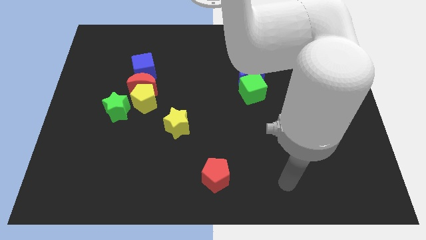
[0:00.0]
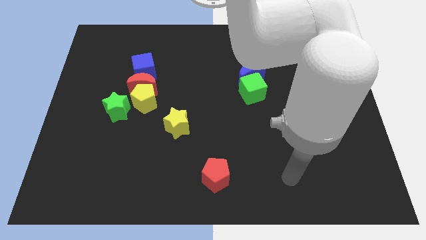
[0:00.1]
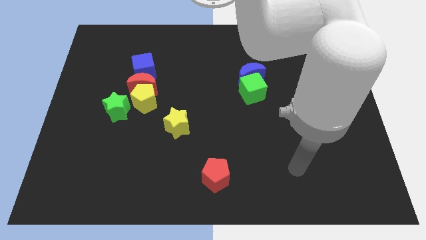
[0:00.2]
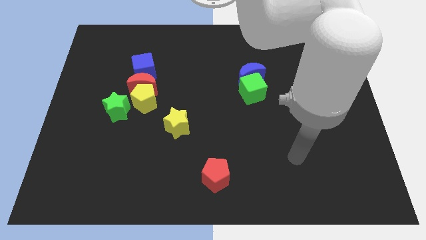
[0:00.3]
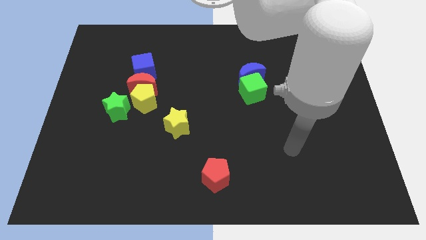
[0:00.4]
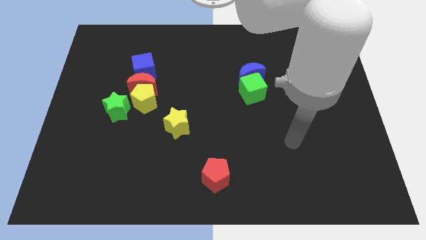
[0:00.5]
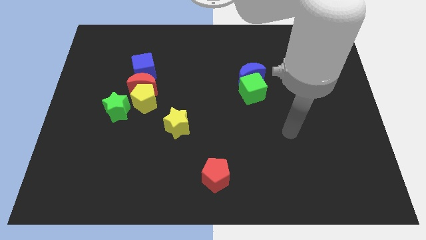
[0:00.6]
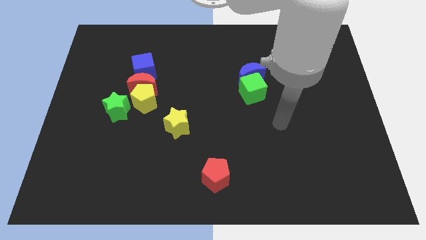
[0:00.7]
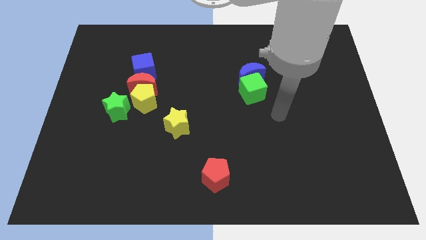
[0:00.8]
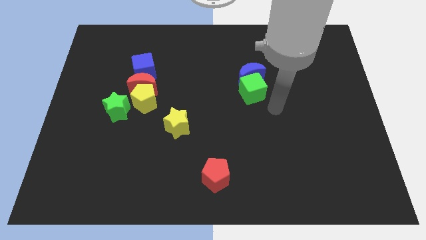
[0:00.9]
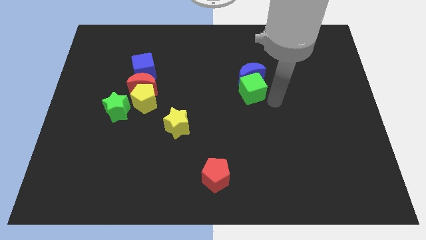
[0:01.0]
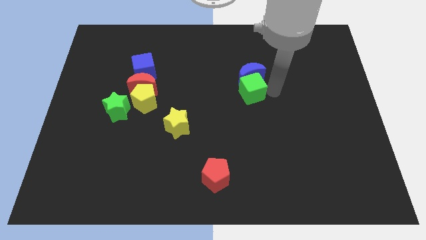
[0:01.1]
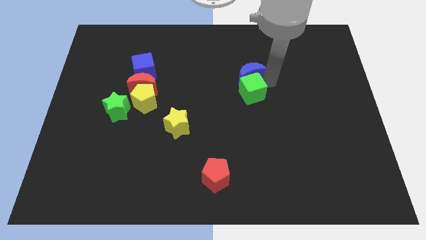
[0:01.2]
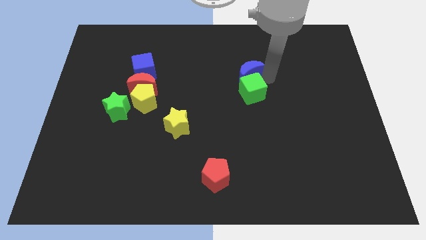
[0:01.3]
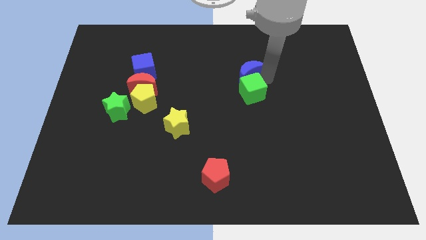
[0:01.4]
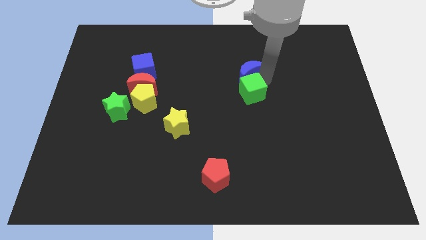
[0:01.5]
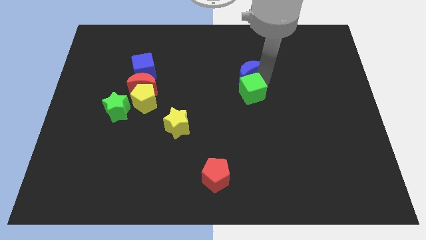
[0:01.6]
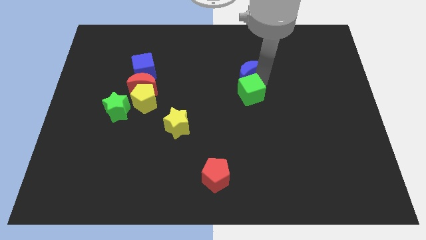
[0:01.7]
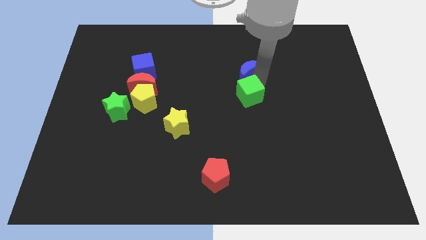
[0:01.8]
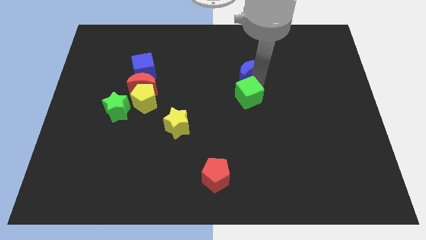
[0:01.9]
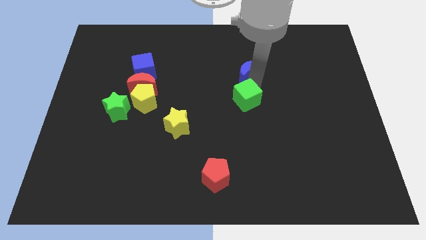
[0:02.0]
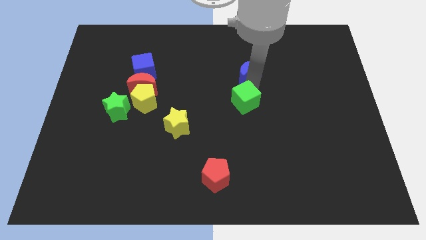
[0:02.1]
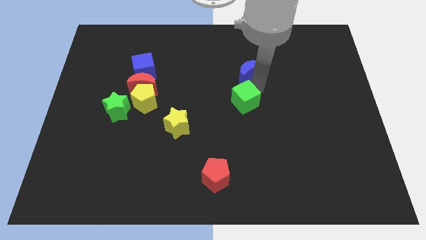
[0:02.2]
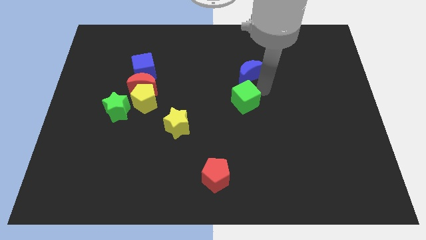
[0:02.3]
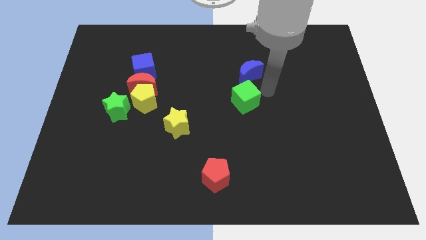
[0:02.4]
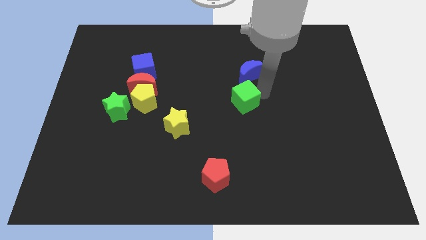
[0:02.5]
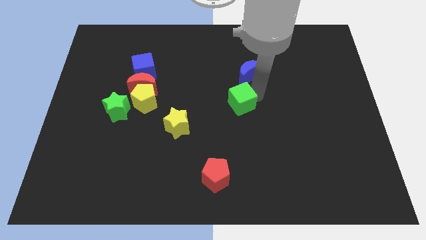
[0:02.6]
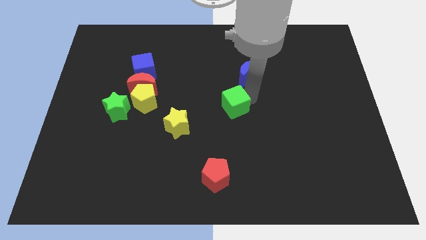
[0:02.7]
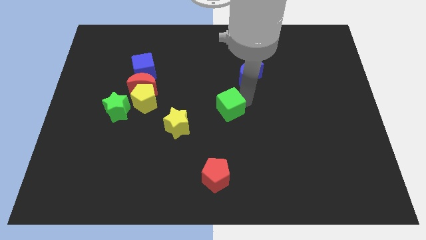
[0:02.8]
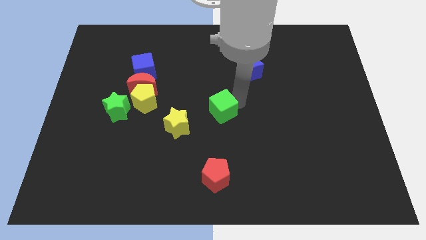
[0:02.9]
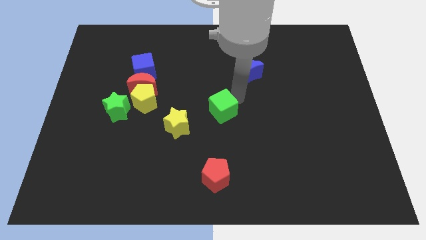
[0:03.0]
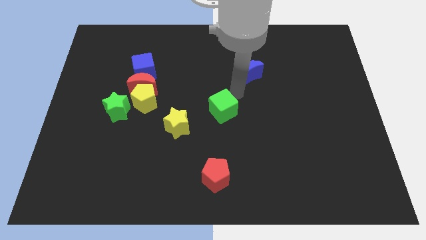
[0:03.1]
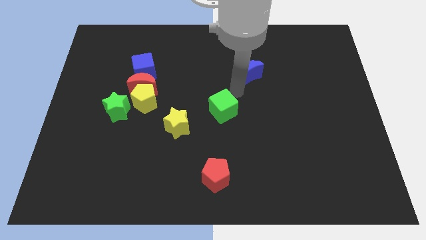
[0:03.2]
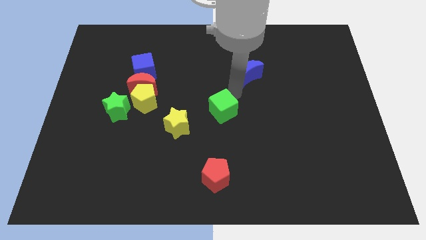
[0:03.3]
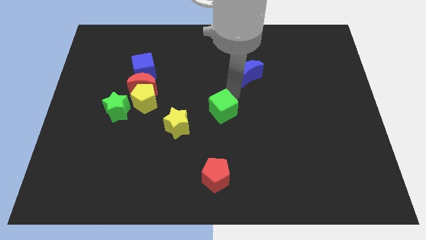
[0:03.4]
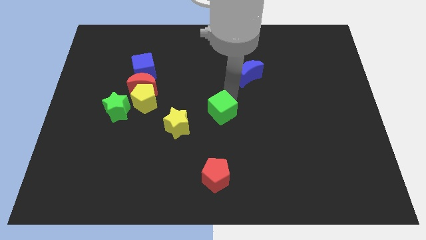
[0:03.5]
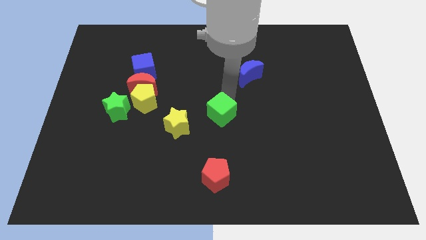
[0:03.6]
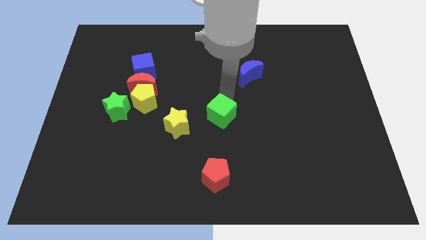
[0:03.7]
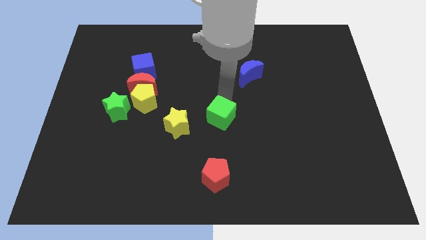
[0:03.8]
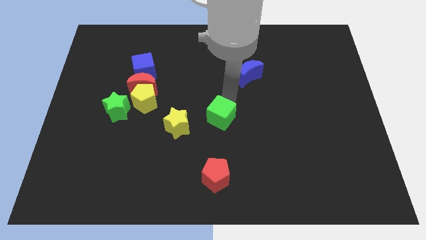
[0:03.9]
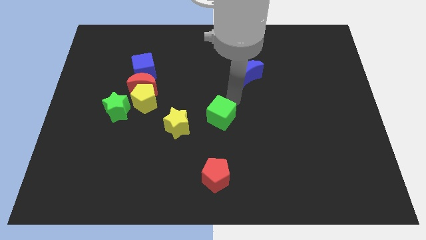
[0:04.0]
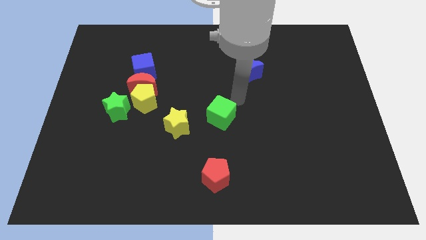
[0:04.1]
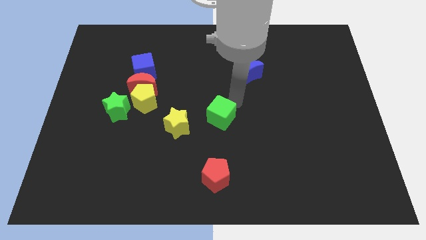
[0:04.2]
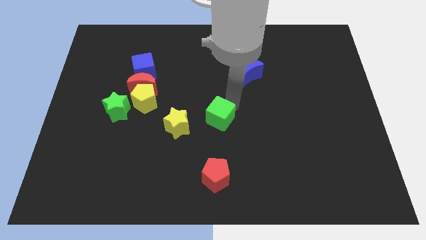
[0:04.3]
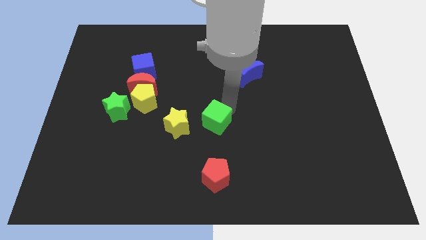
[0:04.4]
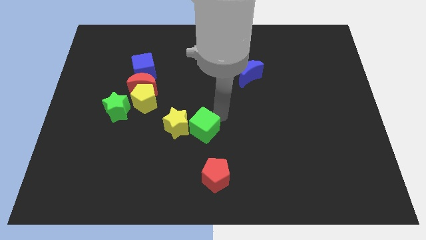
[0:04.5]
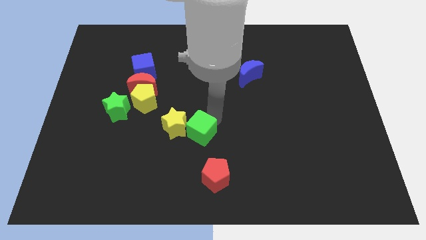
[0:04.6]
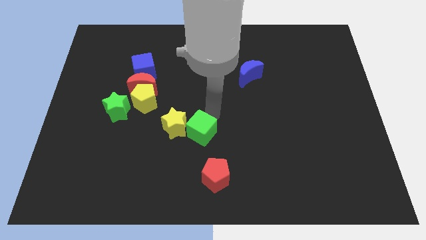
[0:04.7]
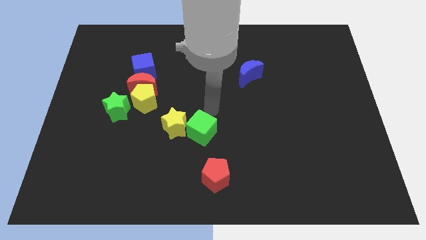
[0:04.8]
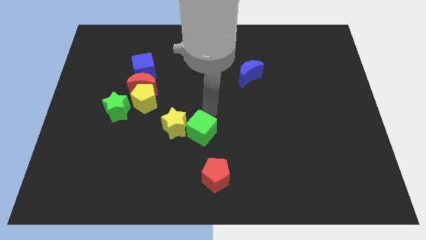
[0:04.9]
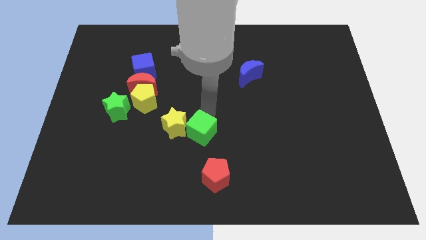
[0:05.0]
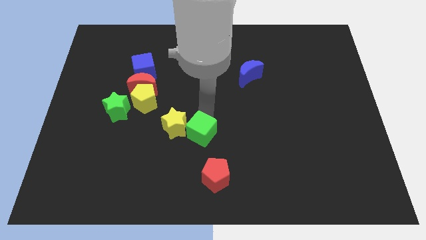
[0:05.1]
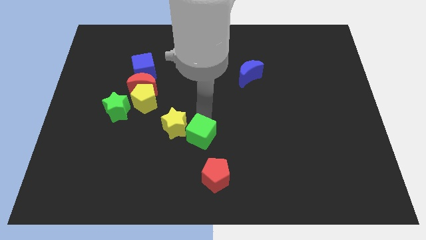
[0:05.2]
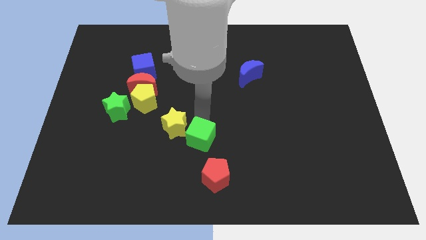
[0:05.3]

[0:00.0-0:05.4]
put the green cube to the top left of the red pentagon

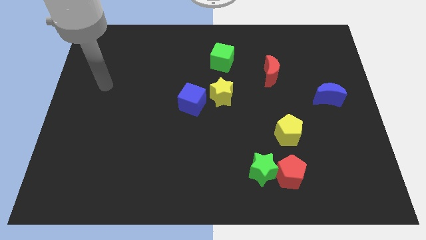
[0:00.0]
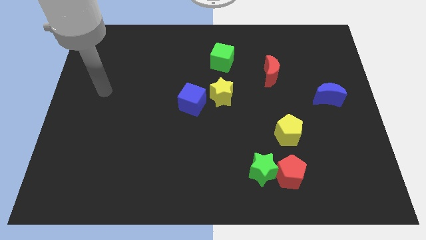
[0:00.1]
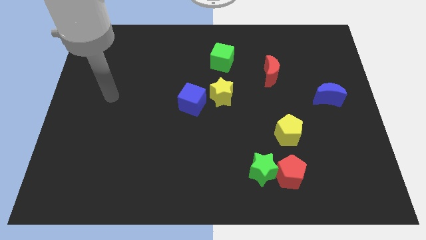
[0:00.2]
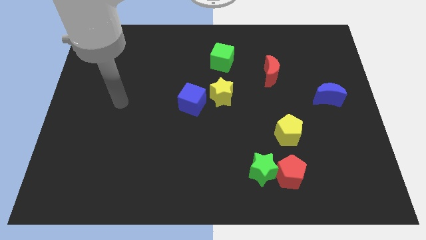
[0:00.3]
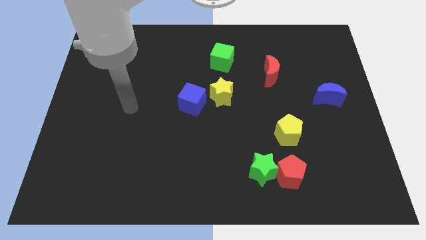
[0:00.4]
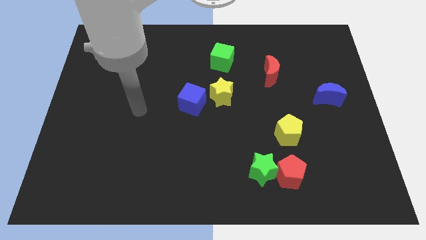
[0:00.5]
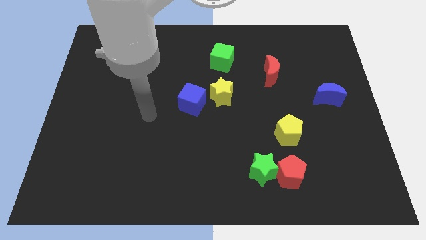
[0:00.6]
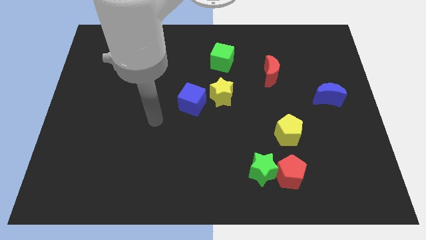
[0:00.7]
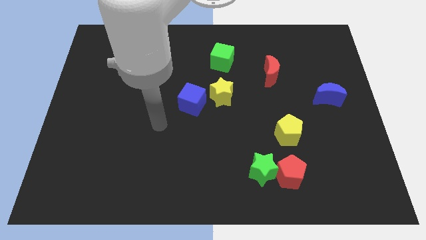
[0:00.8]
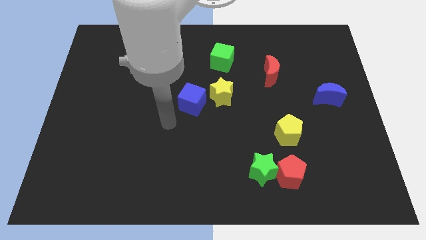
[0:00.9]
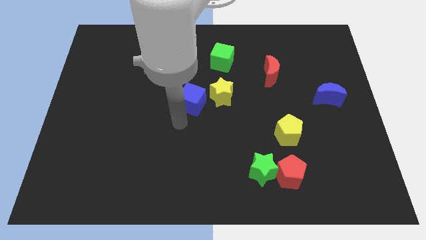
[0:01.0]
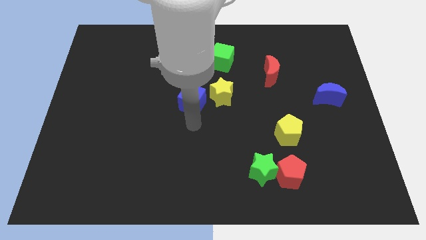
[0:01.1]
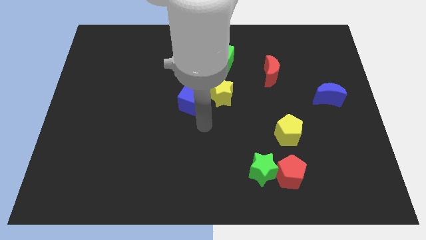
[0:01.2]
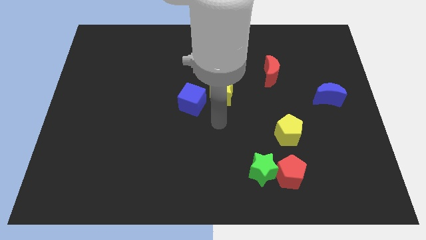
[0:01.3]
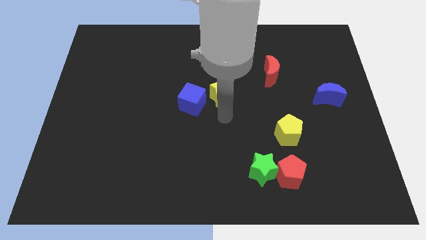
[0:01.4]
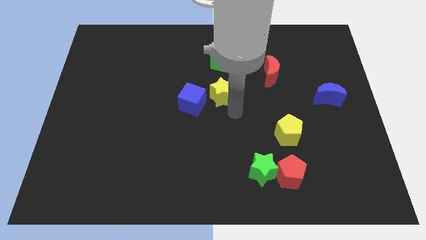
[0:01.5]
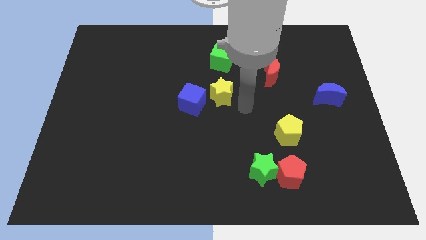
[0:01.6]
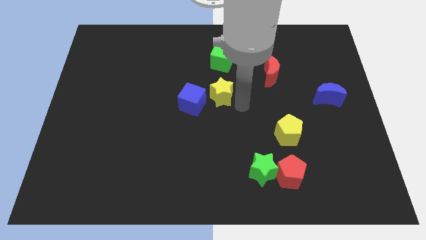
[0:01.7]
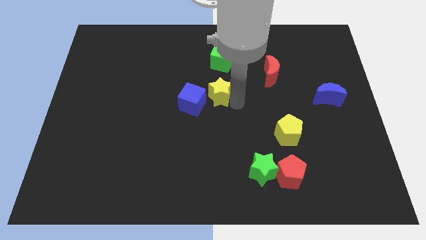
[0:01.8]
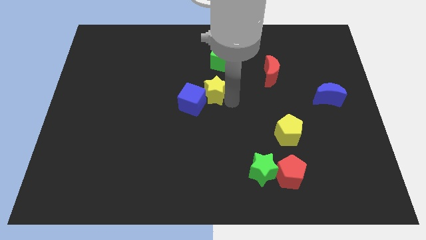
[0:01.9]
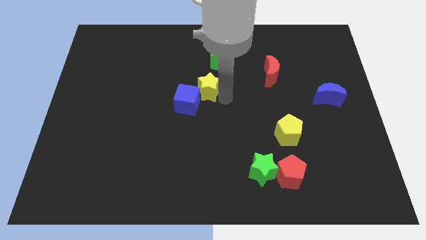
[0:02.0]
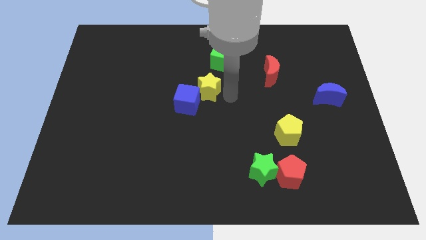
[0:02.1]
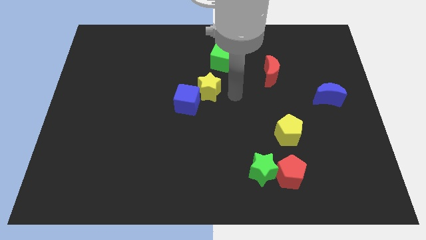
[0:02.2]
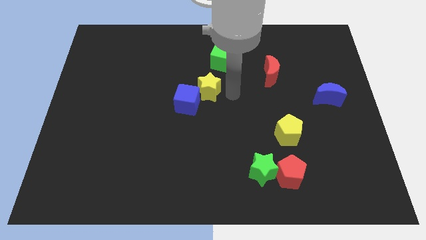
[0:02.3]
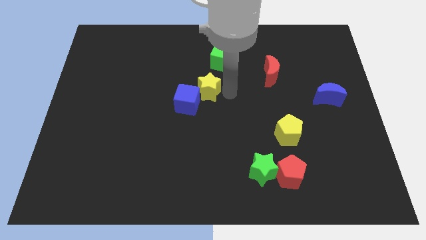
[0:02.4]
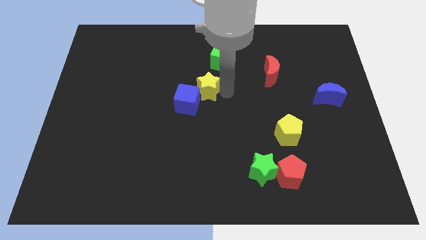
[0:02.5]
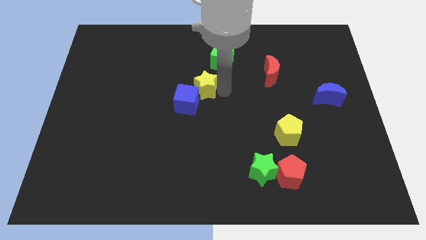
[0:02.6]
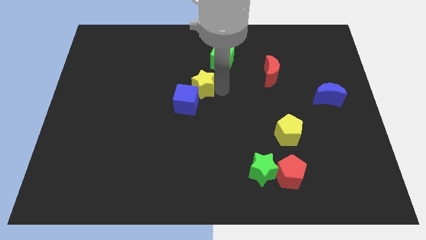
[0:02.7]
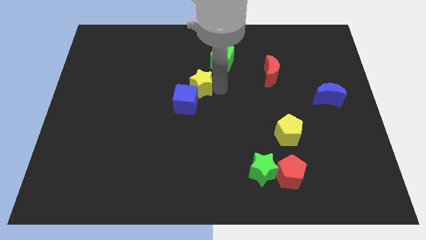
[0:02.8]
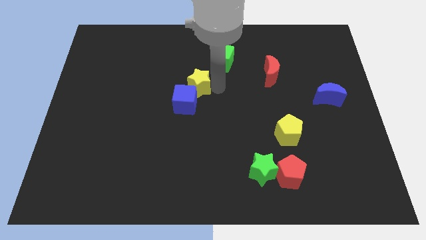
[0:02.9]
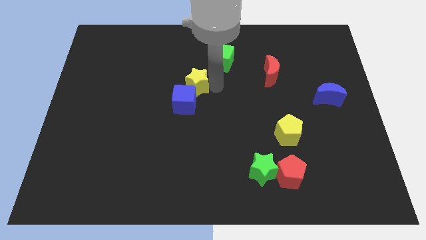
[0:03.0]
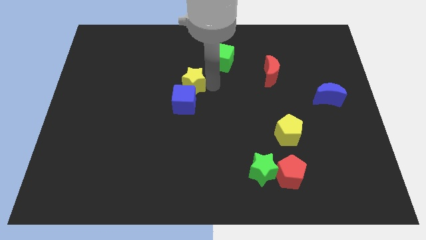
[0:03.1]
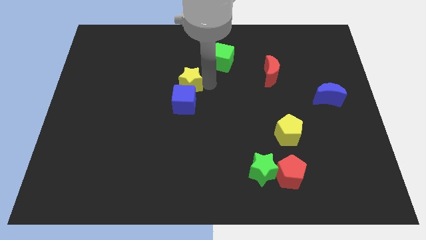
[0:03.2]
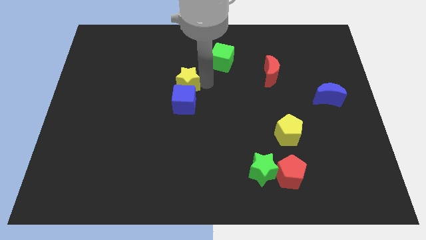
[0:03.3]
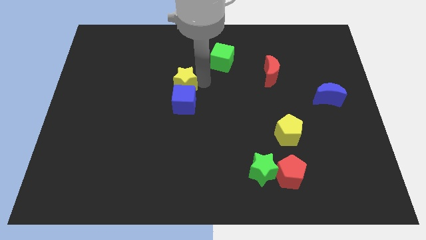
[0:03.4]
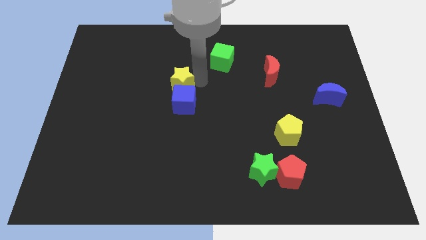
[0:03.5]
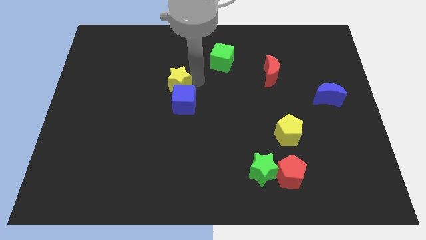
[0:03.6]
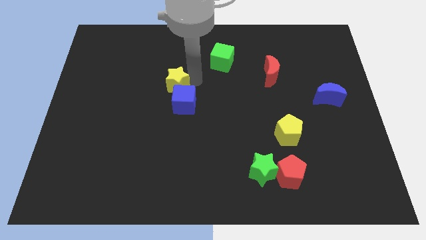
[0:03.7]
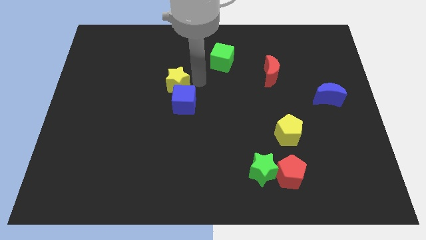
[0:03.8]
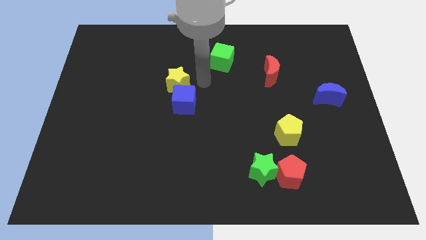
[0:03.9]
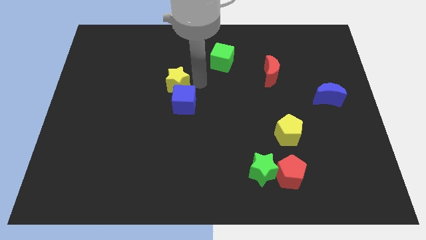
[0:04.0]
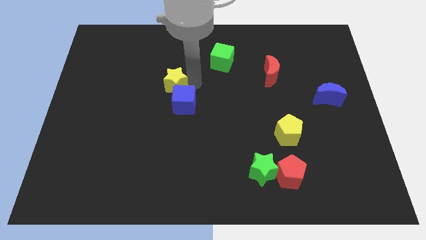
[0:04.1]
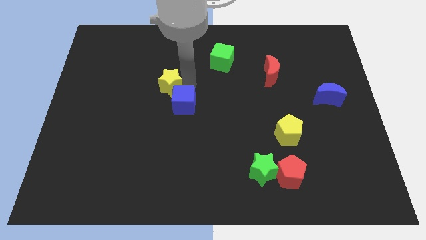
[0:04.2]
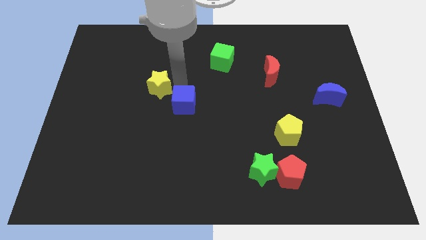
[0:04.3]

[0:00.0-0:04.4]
put the yellow star left of the blue cube
